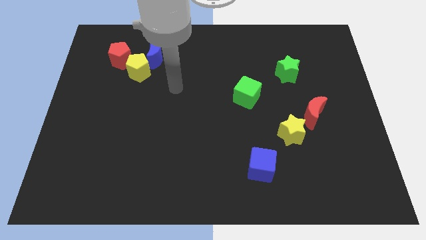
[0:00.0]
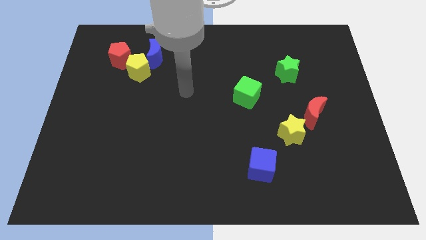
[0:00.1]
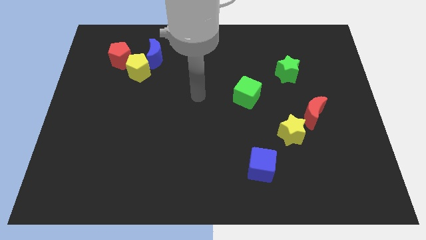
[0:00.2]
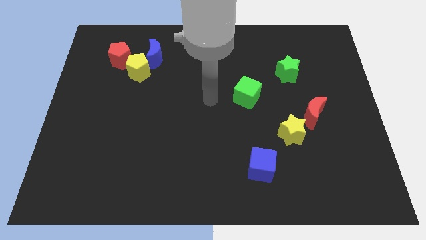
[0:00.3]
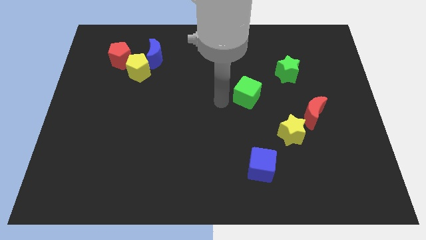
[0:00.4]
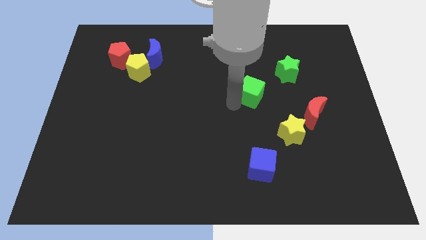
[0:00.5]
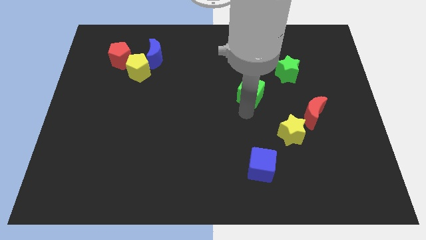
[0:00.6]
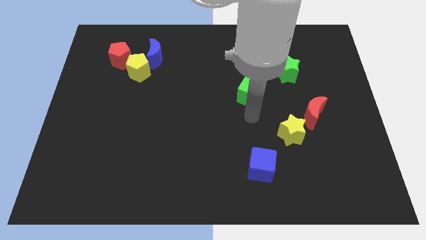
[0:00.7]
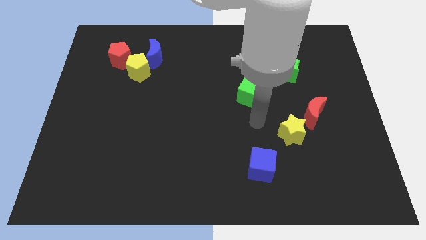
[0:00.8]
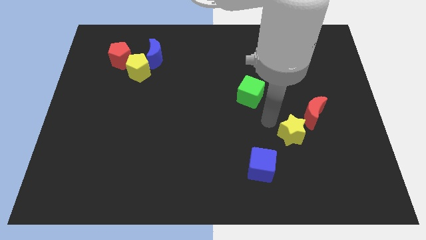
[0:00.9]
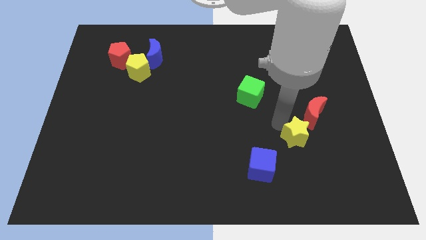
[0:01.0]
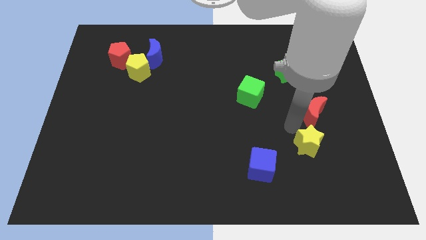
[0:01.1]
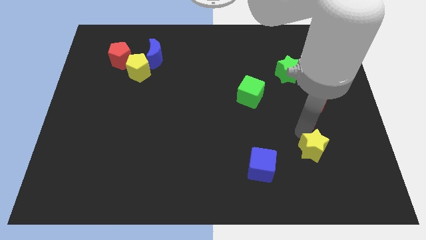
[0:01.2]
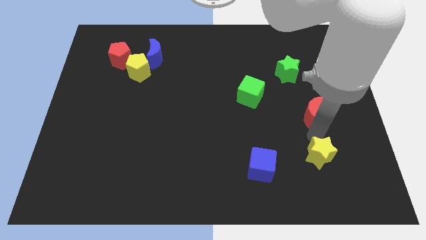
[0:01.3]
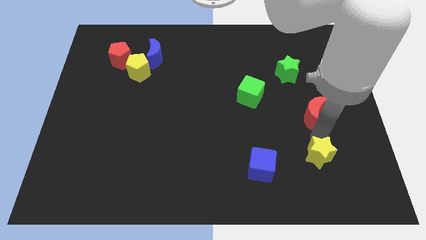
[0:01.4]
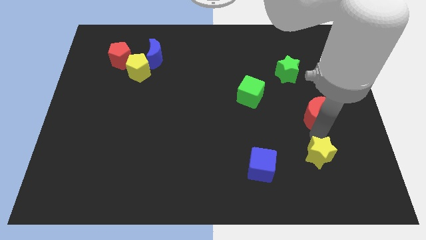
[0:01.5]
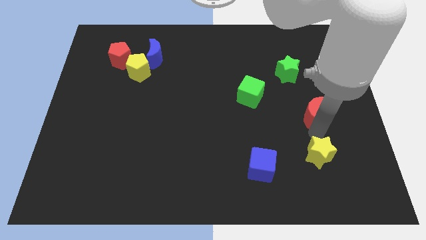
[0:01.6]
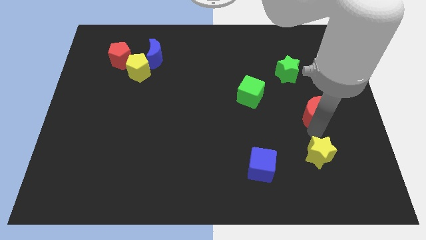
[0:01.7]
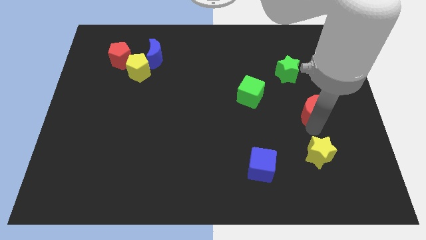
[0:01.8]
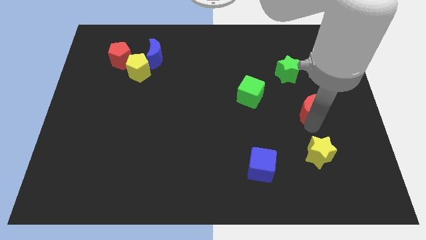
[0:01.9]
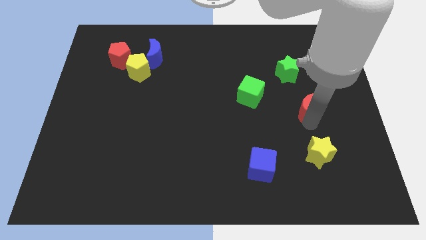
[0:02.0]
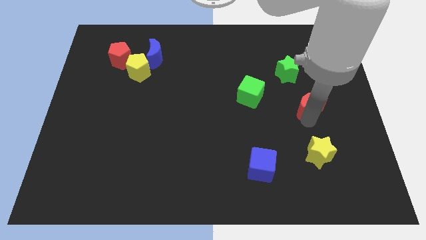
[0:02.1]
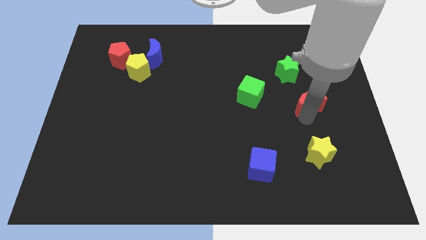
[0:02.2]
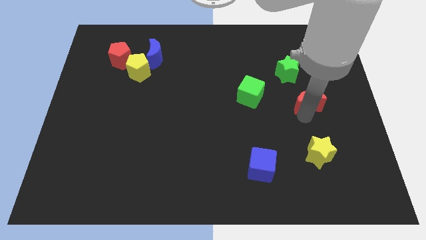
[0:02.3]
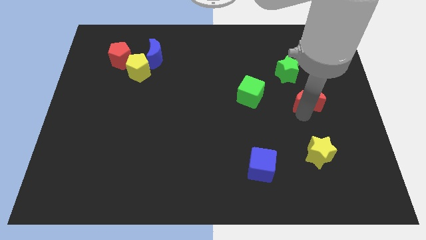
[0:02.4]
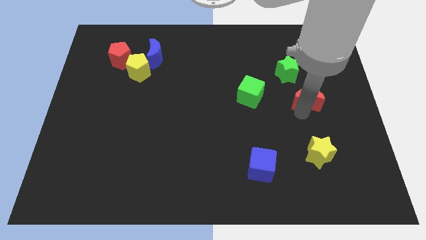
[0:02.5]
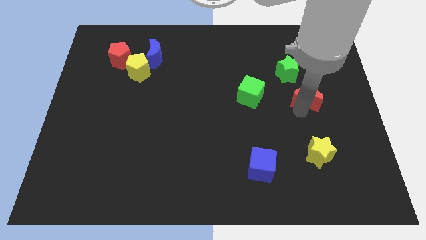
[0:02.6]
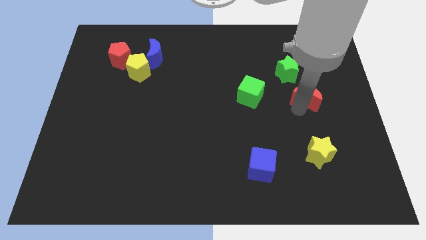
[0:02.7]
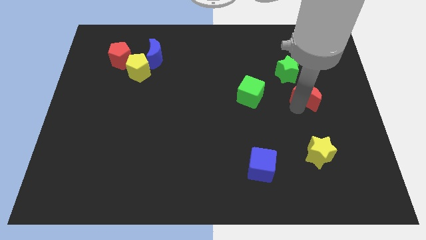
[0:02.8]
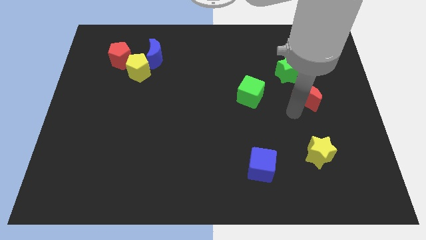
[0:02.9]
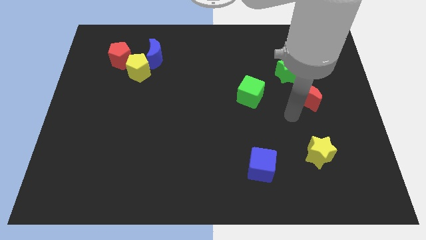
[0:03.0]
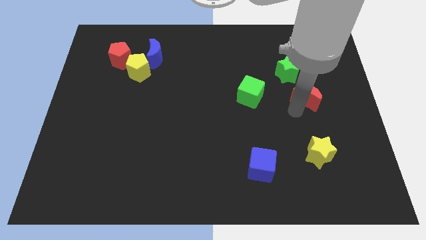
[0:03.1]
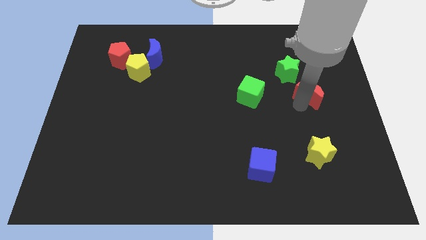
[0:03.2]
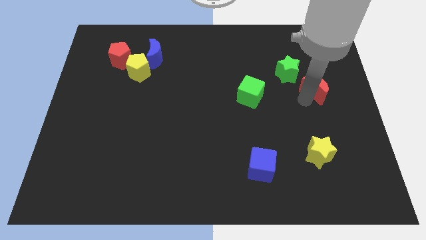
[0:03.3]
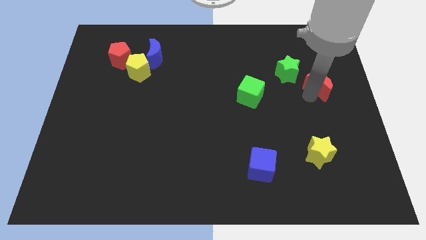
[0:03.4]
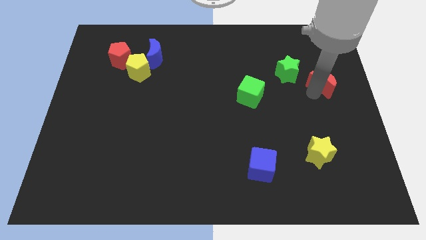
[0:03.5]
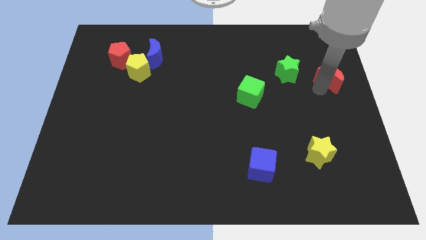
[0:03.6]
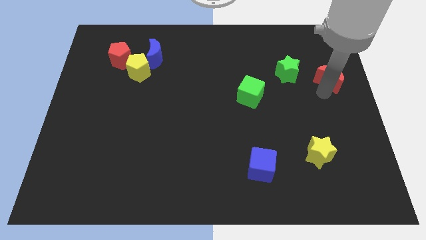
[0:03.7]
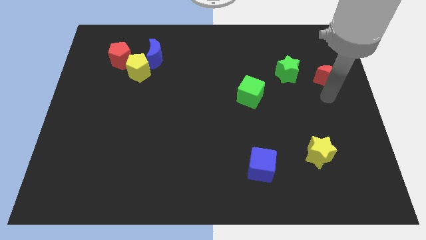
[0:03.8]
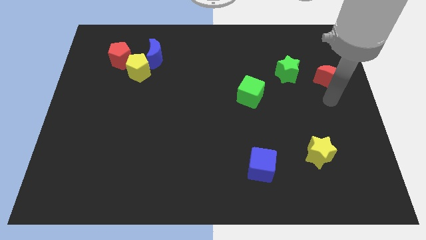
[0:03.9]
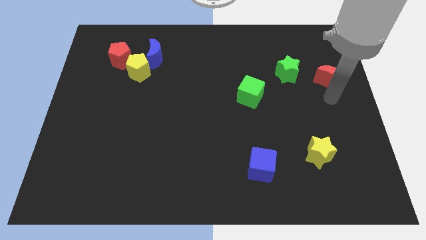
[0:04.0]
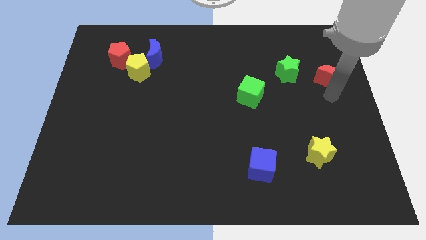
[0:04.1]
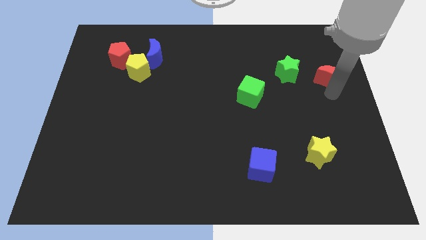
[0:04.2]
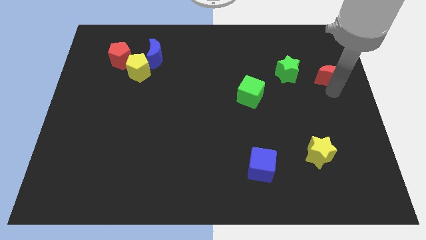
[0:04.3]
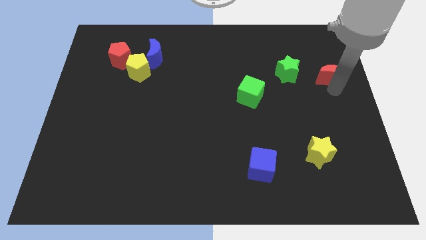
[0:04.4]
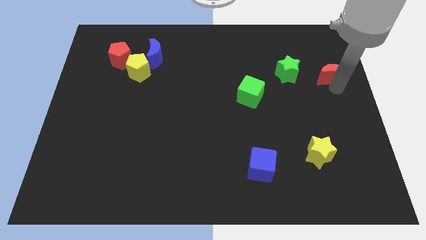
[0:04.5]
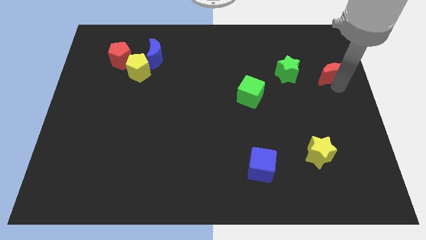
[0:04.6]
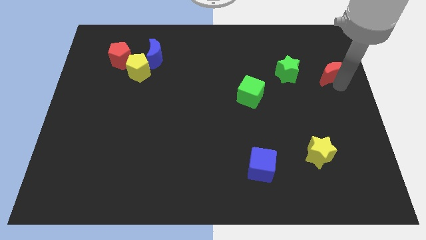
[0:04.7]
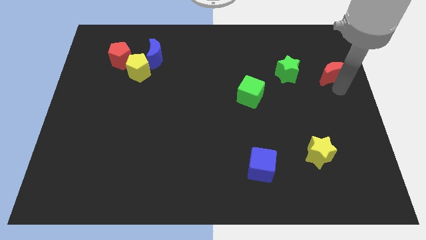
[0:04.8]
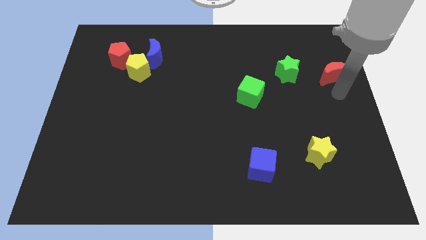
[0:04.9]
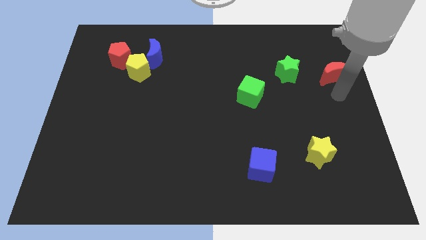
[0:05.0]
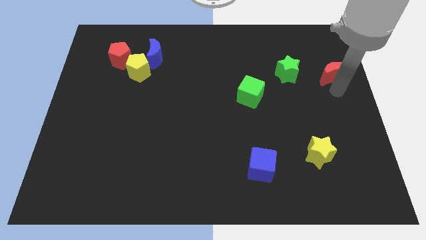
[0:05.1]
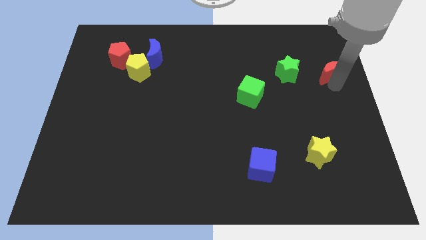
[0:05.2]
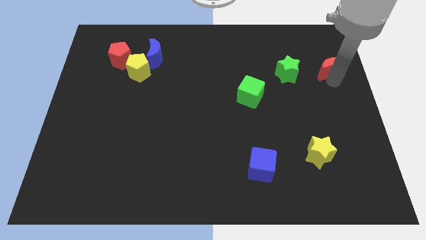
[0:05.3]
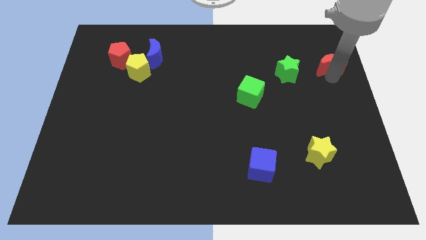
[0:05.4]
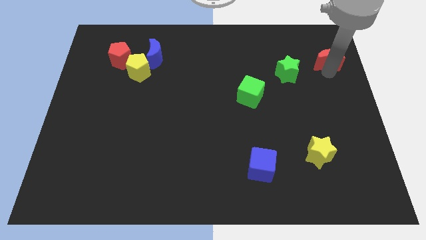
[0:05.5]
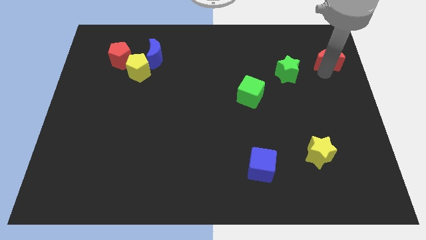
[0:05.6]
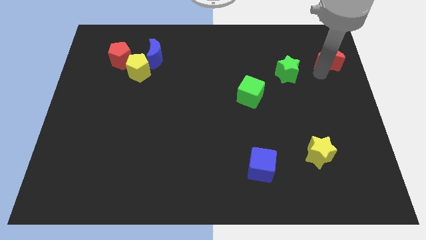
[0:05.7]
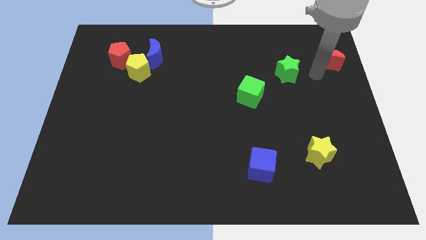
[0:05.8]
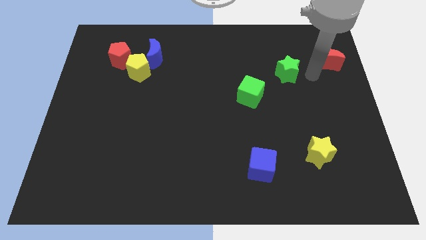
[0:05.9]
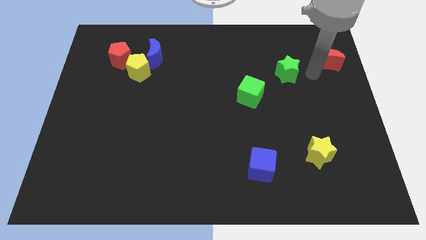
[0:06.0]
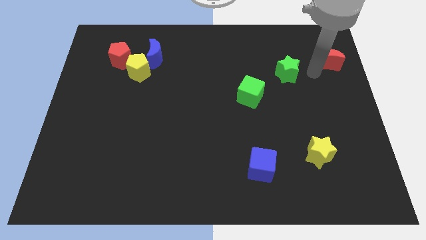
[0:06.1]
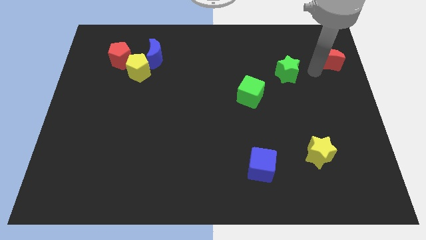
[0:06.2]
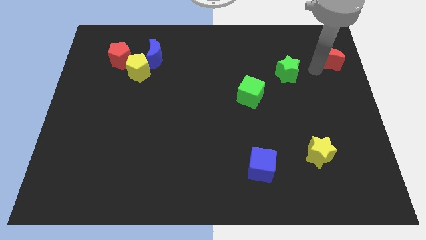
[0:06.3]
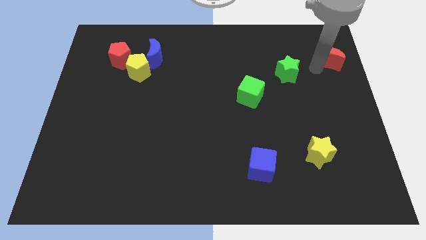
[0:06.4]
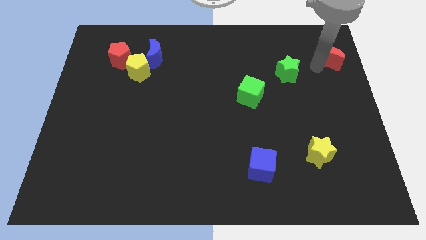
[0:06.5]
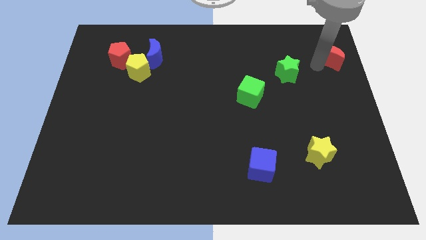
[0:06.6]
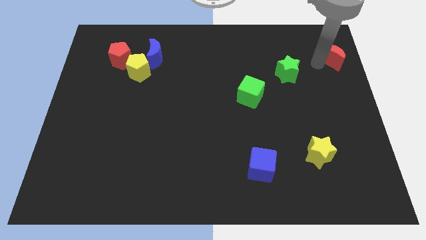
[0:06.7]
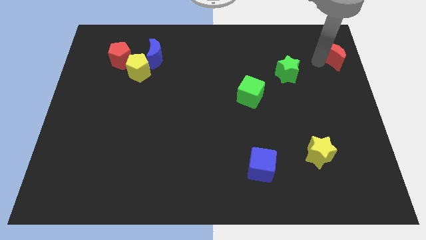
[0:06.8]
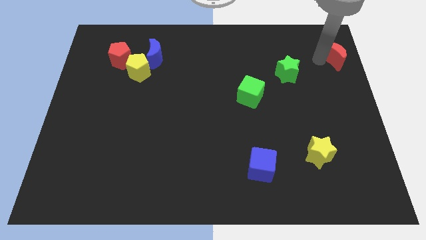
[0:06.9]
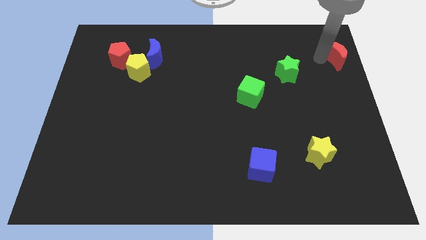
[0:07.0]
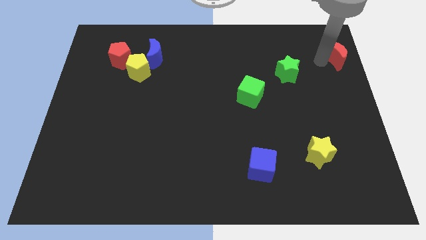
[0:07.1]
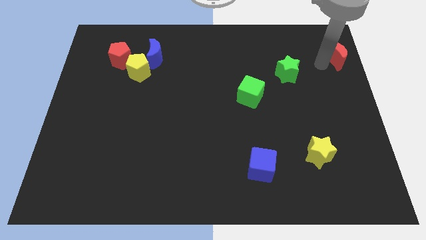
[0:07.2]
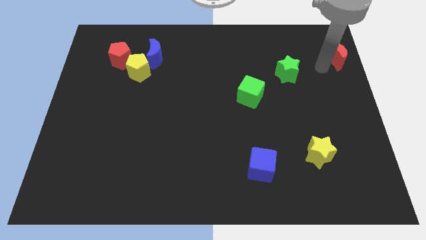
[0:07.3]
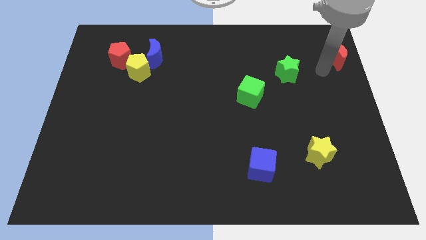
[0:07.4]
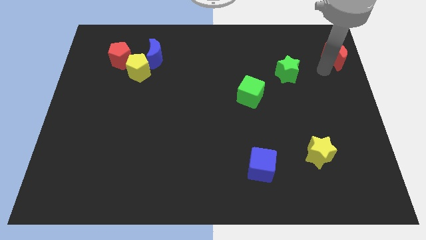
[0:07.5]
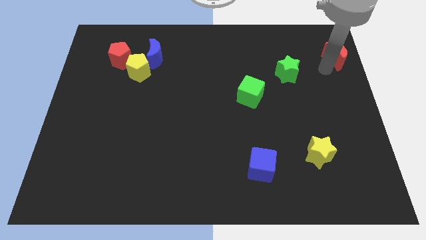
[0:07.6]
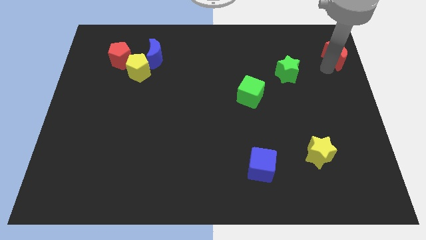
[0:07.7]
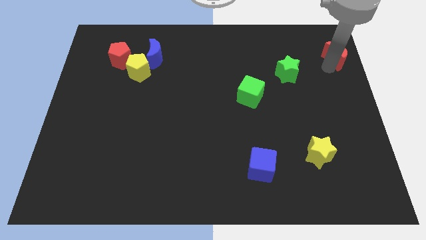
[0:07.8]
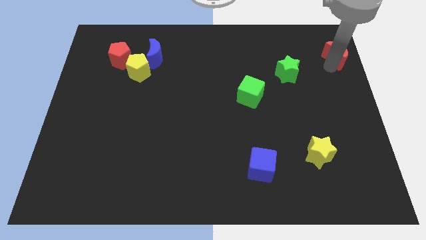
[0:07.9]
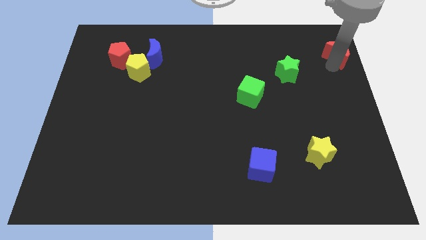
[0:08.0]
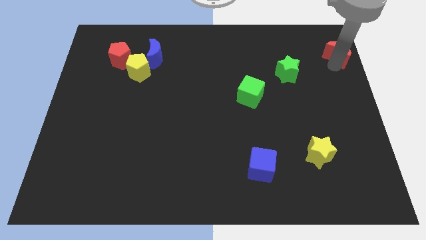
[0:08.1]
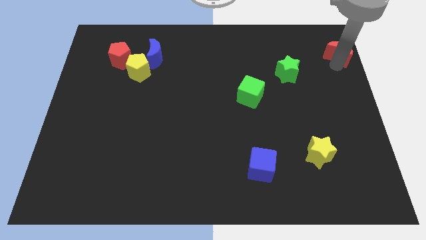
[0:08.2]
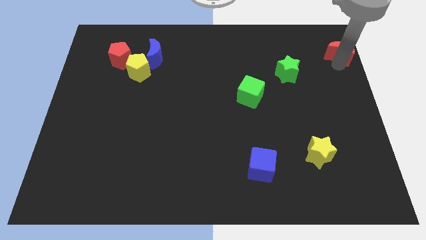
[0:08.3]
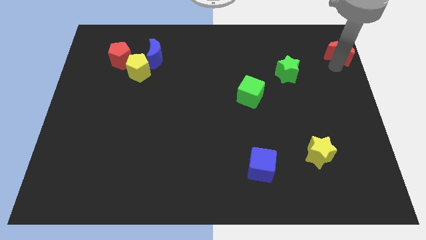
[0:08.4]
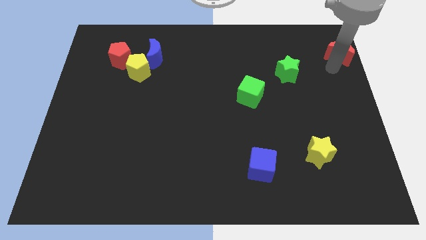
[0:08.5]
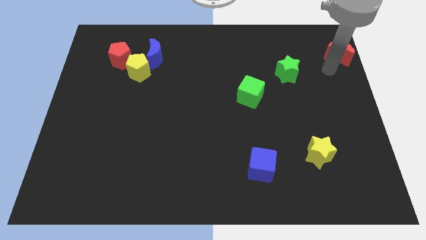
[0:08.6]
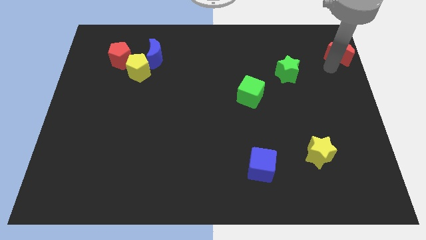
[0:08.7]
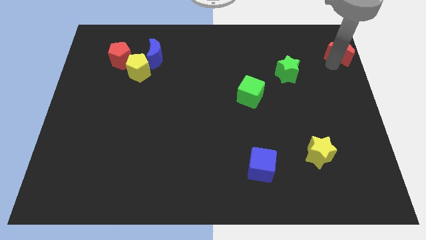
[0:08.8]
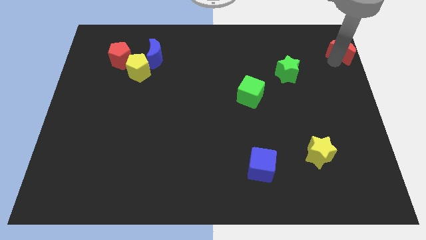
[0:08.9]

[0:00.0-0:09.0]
put the red moon to the top right corner
